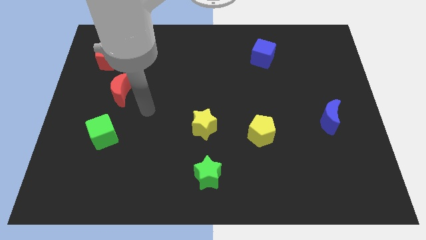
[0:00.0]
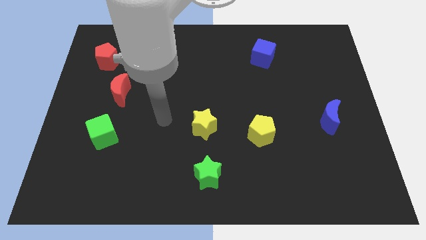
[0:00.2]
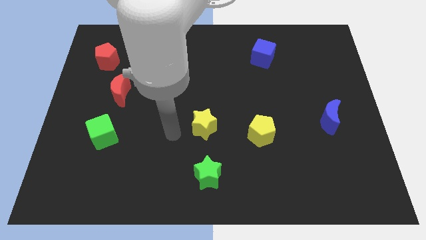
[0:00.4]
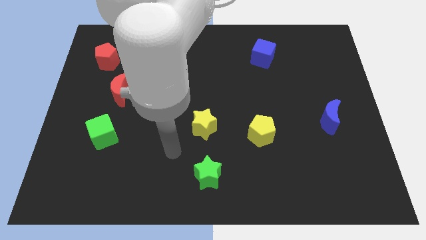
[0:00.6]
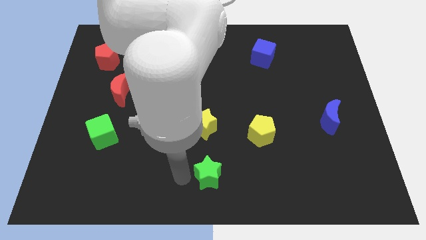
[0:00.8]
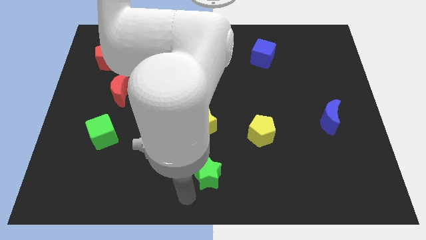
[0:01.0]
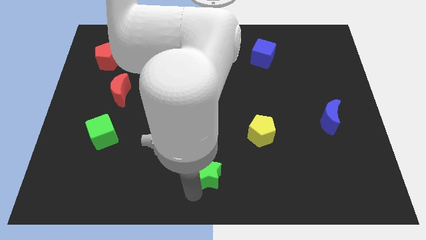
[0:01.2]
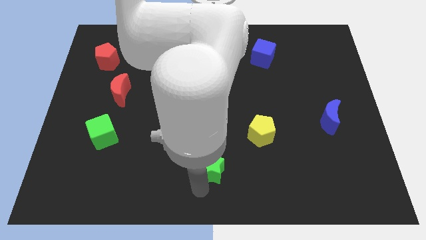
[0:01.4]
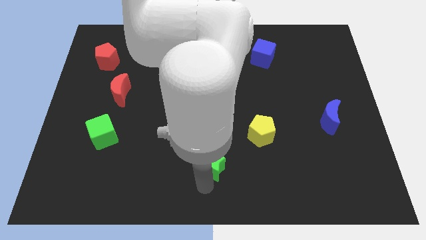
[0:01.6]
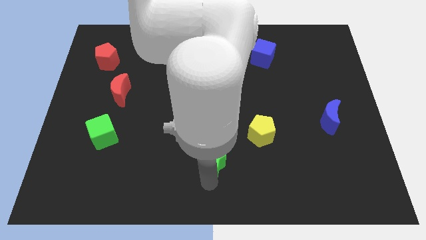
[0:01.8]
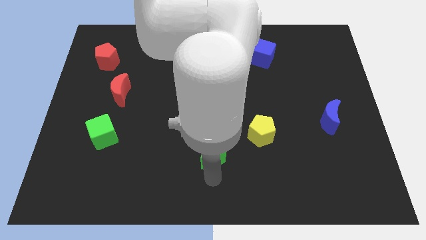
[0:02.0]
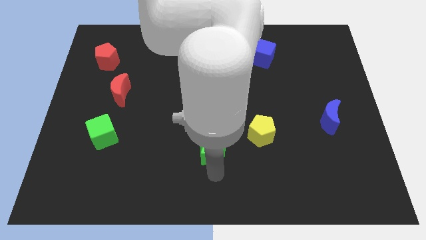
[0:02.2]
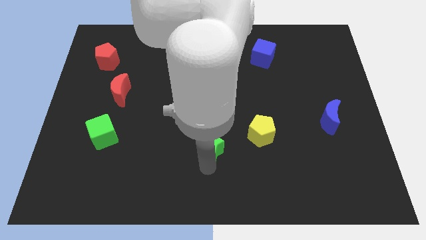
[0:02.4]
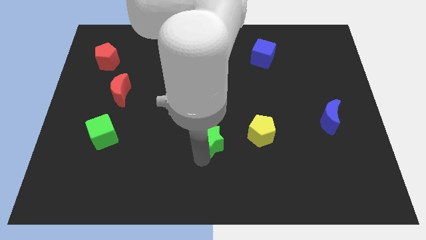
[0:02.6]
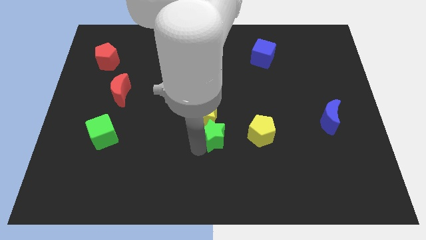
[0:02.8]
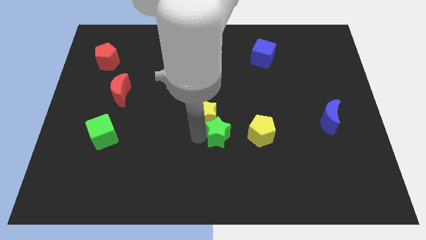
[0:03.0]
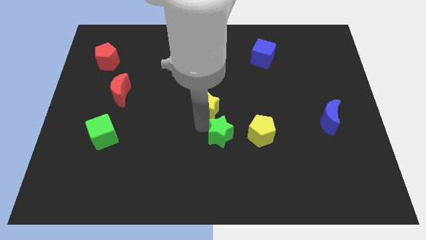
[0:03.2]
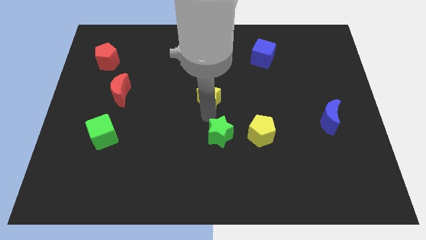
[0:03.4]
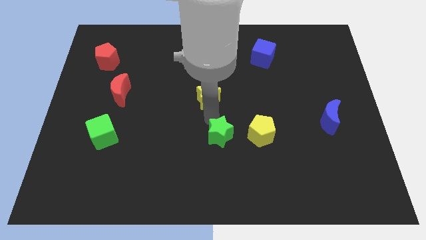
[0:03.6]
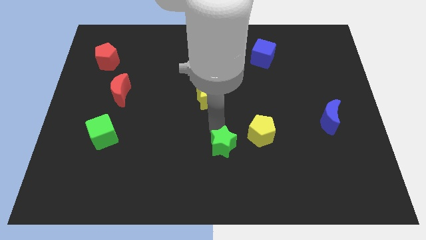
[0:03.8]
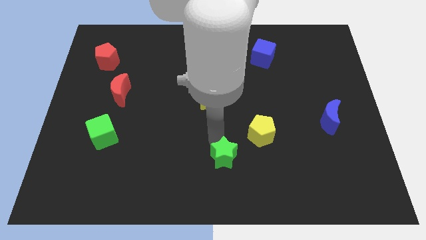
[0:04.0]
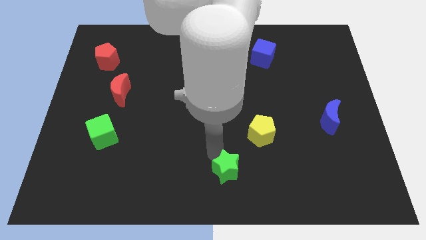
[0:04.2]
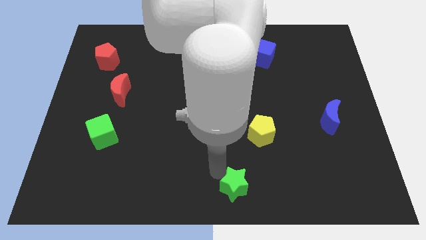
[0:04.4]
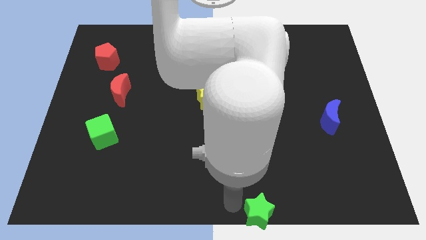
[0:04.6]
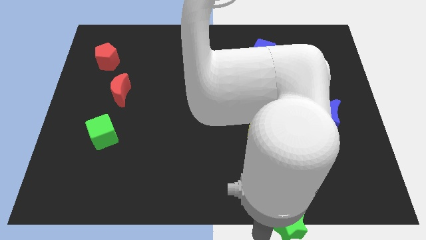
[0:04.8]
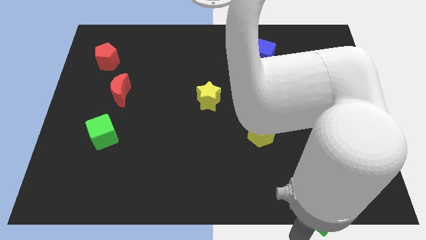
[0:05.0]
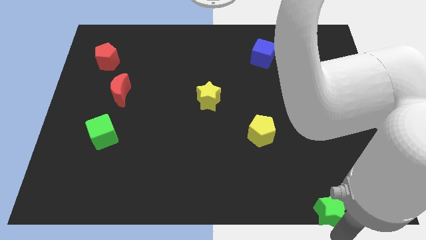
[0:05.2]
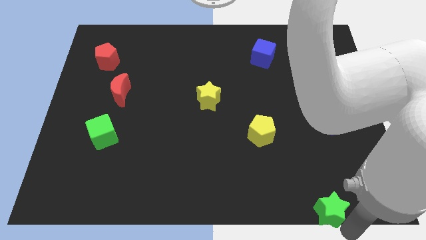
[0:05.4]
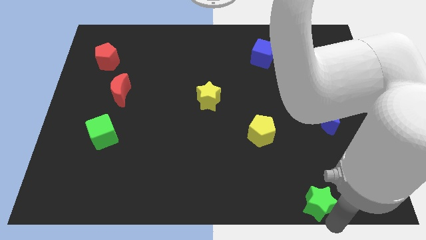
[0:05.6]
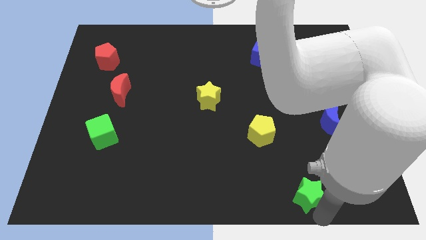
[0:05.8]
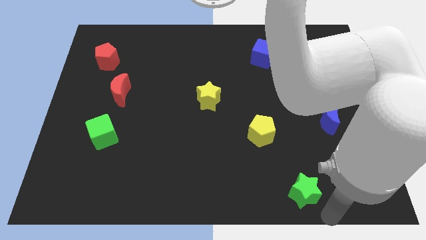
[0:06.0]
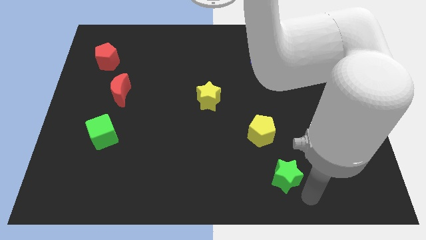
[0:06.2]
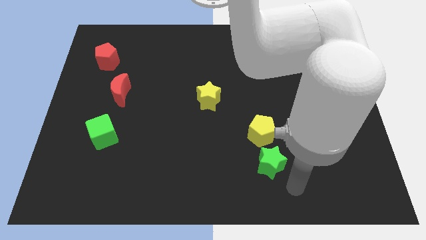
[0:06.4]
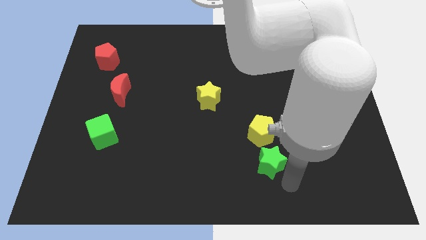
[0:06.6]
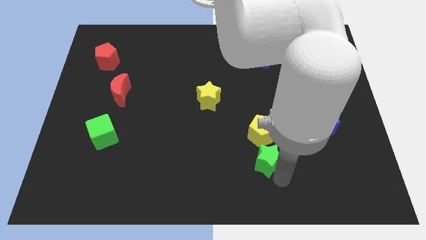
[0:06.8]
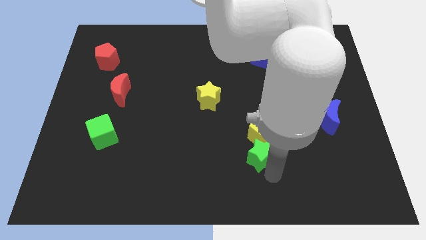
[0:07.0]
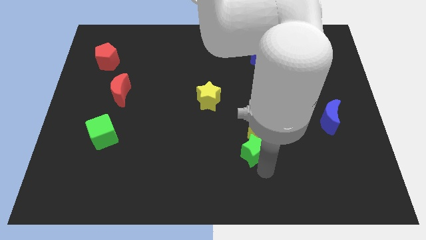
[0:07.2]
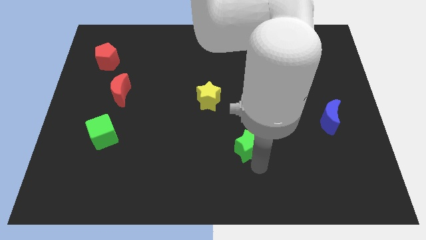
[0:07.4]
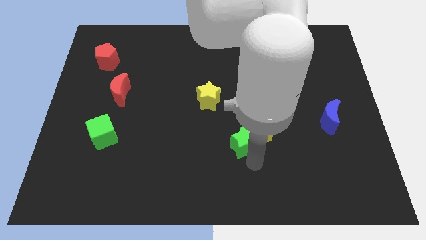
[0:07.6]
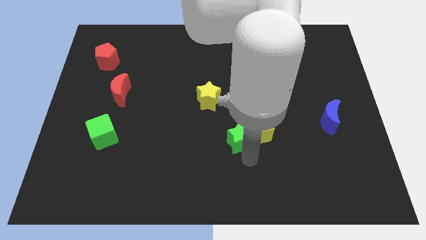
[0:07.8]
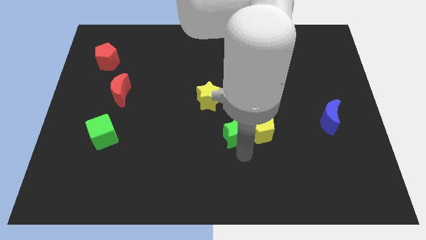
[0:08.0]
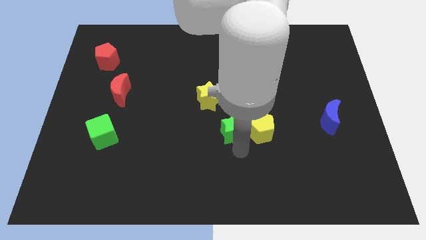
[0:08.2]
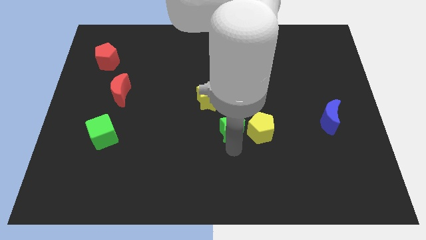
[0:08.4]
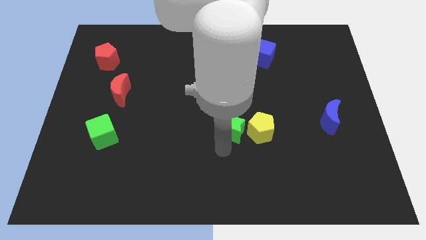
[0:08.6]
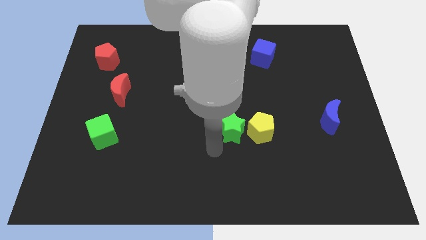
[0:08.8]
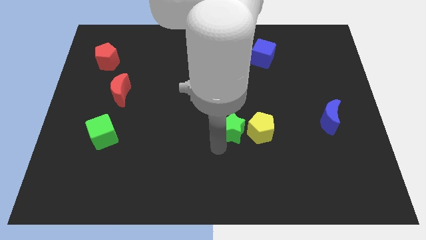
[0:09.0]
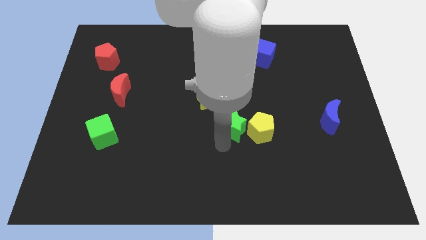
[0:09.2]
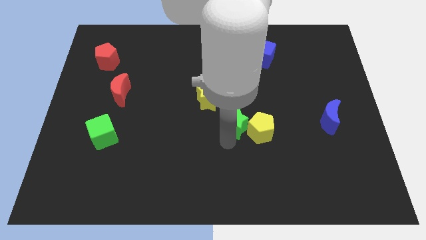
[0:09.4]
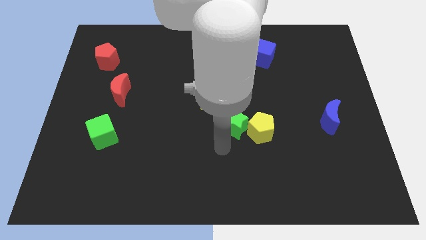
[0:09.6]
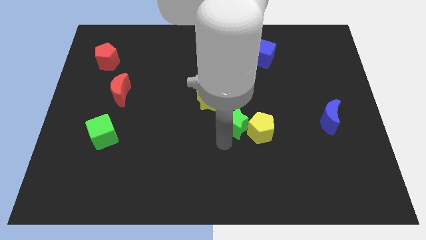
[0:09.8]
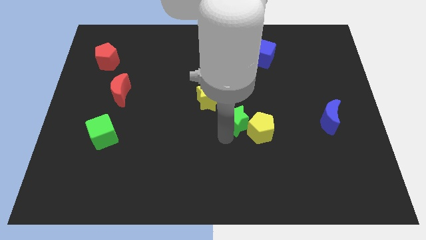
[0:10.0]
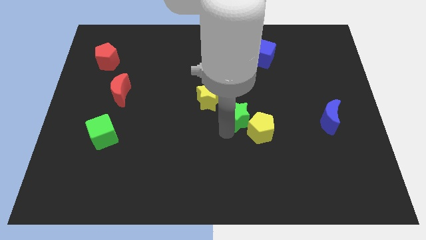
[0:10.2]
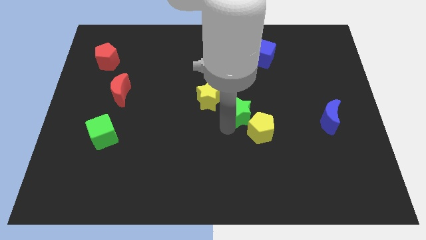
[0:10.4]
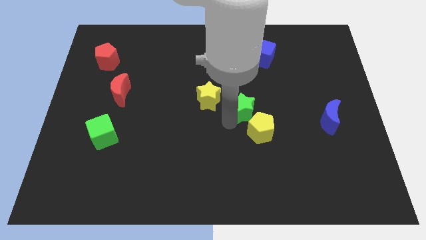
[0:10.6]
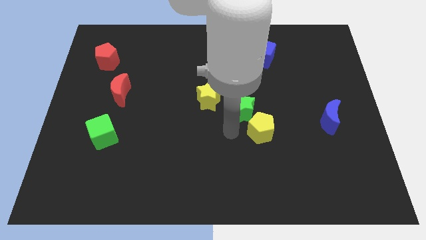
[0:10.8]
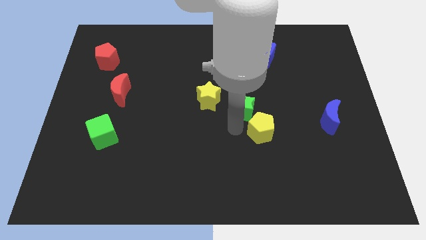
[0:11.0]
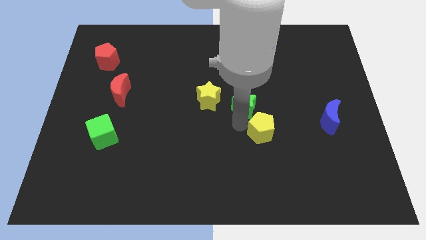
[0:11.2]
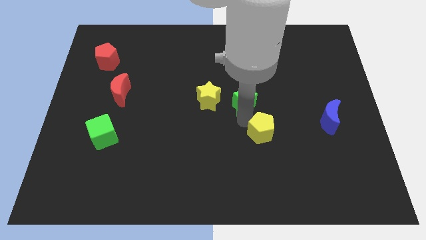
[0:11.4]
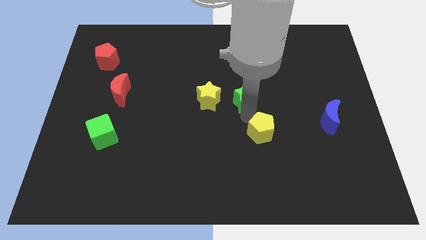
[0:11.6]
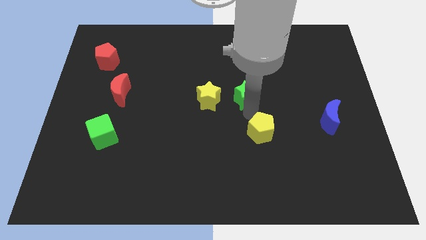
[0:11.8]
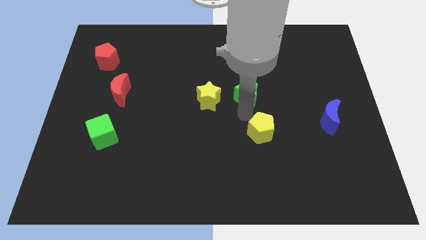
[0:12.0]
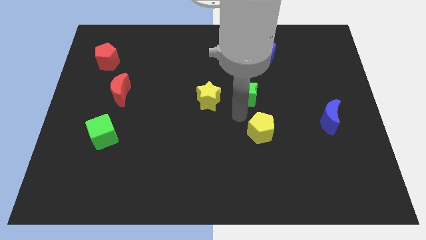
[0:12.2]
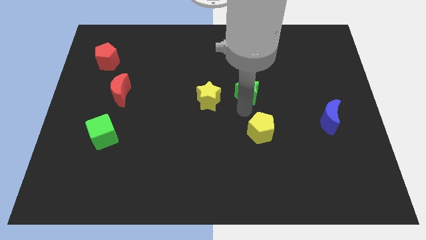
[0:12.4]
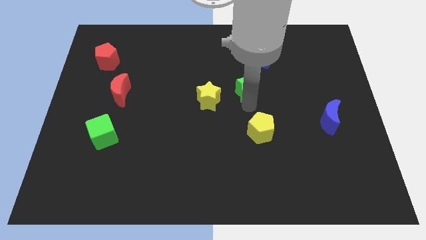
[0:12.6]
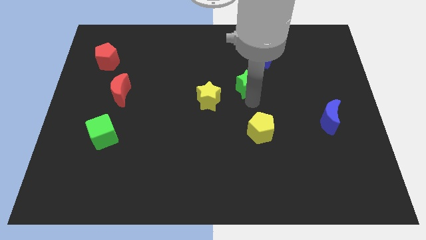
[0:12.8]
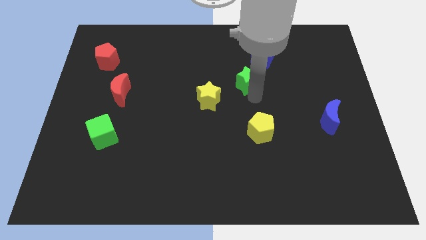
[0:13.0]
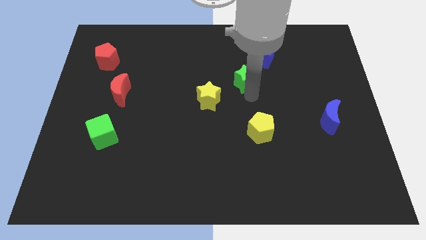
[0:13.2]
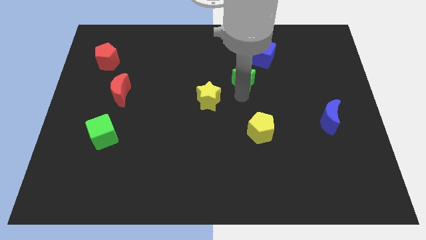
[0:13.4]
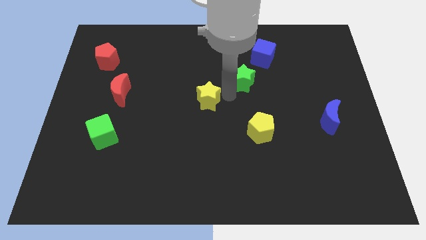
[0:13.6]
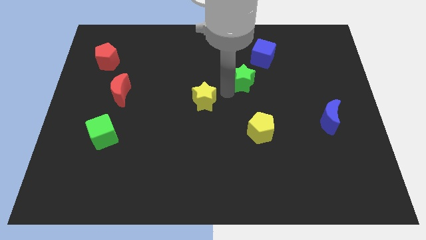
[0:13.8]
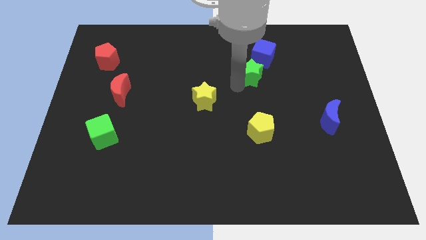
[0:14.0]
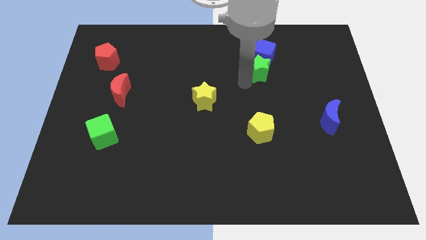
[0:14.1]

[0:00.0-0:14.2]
put the green star next to the blue cube
